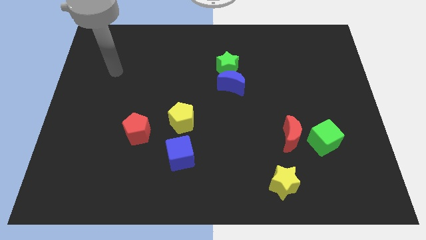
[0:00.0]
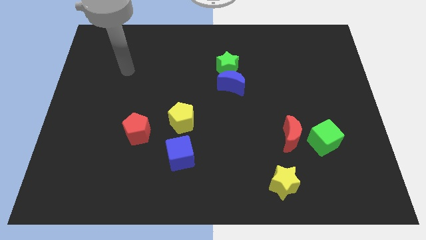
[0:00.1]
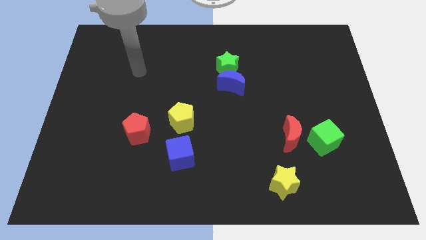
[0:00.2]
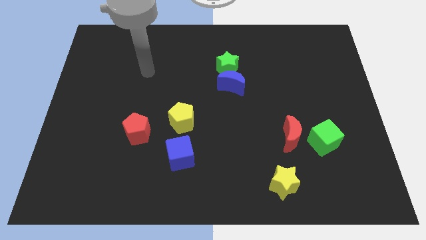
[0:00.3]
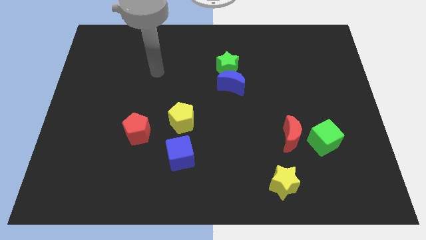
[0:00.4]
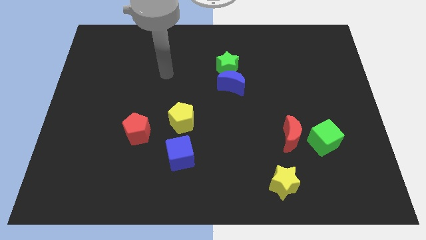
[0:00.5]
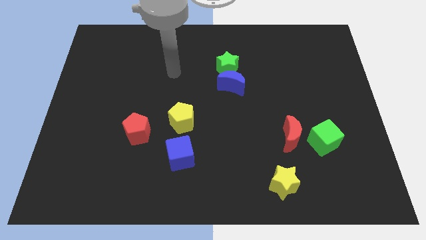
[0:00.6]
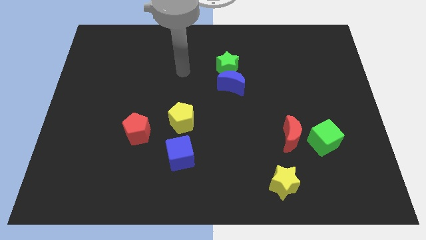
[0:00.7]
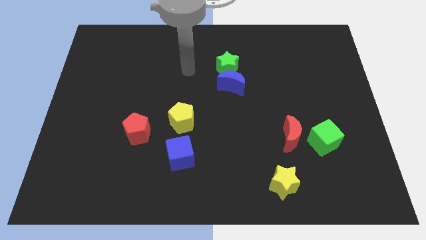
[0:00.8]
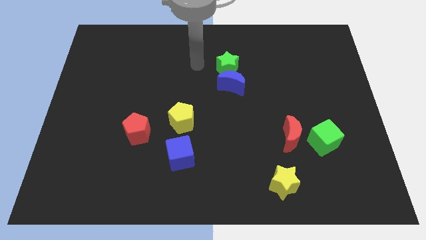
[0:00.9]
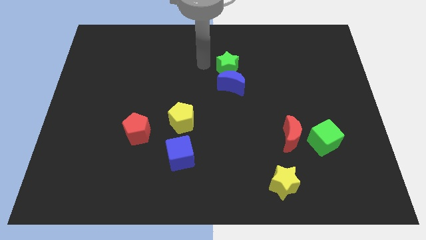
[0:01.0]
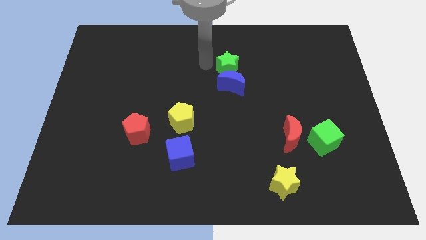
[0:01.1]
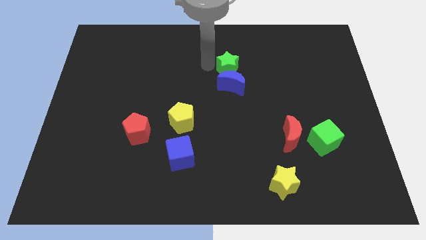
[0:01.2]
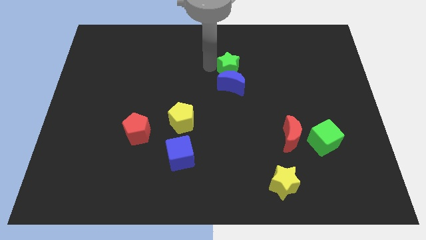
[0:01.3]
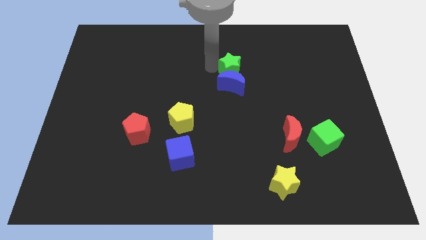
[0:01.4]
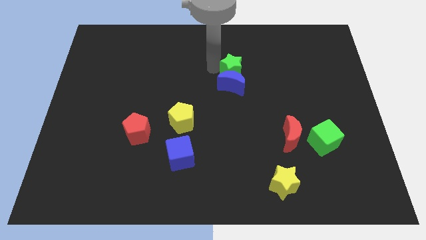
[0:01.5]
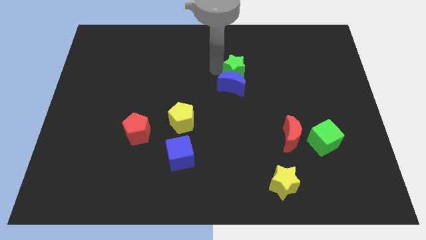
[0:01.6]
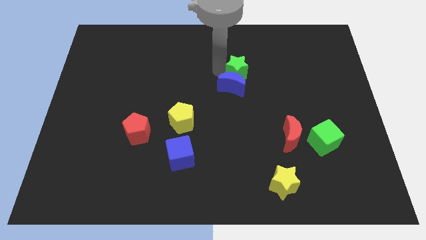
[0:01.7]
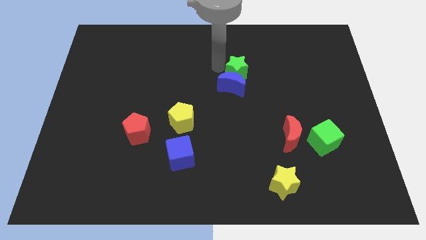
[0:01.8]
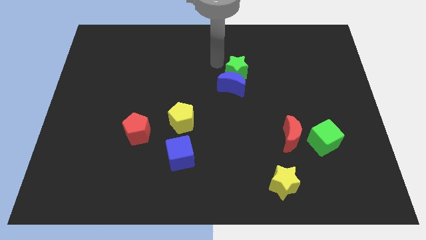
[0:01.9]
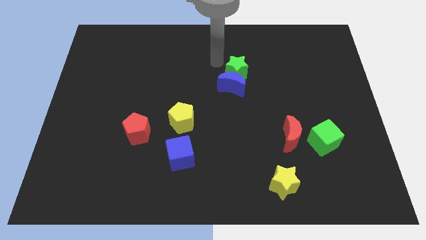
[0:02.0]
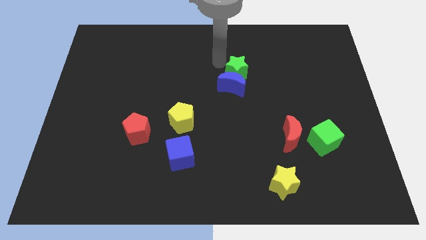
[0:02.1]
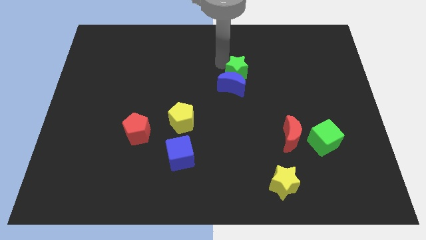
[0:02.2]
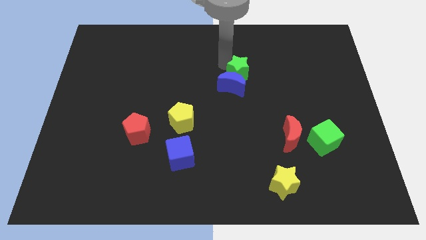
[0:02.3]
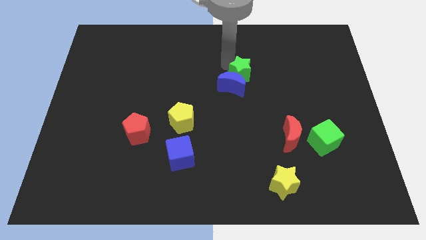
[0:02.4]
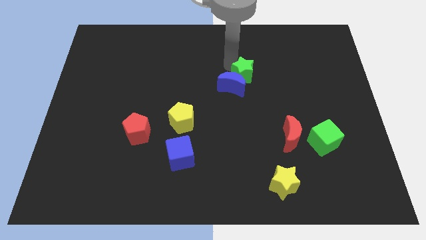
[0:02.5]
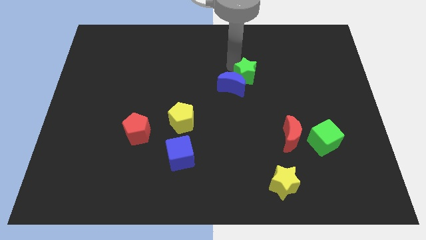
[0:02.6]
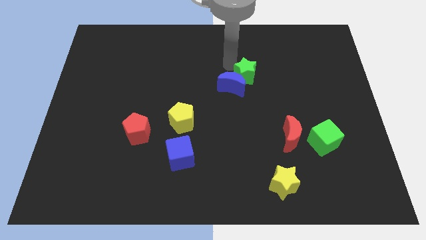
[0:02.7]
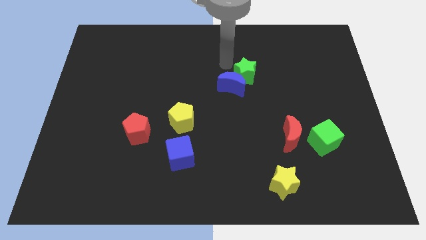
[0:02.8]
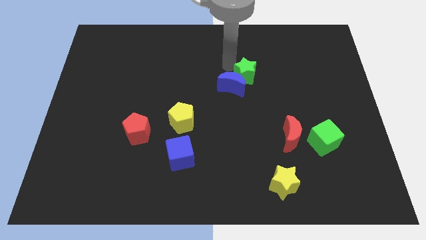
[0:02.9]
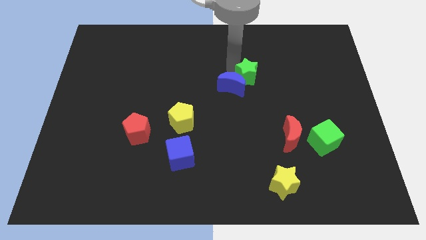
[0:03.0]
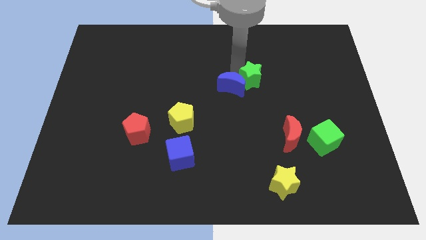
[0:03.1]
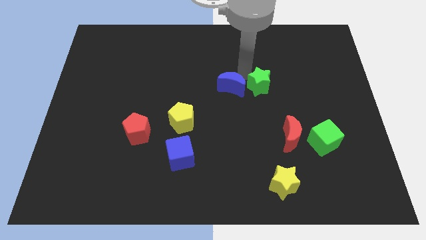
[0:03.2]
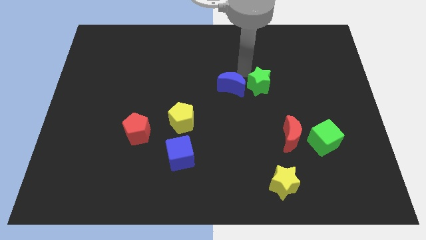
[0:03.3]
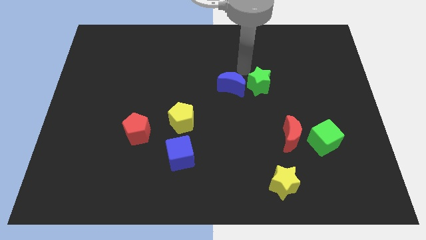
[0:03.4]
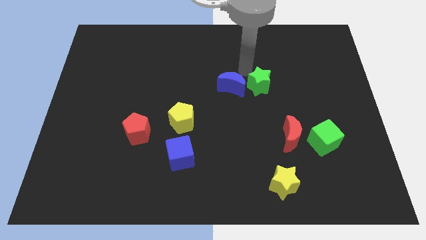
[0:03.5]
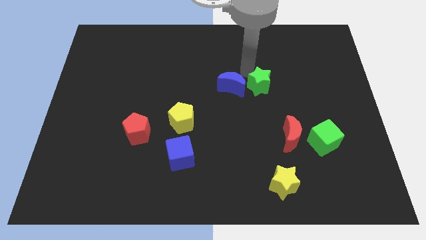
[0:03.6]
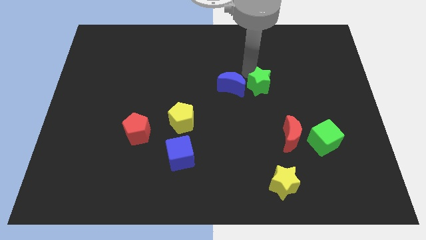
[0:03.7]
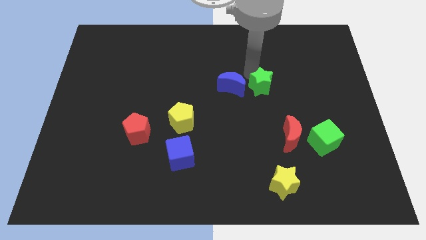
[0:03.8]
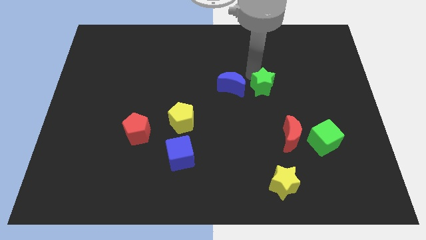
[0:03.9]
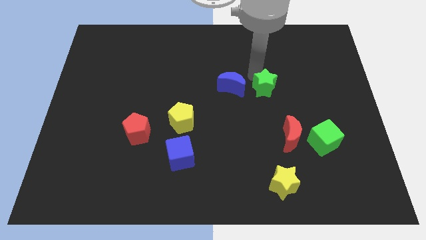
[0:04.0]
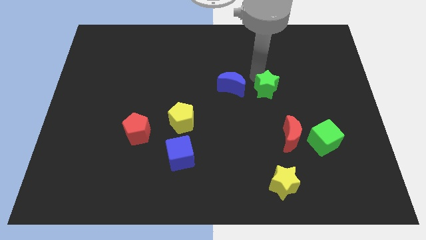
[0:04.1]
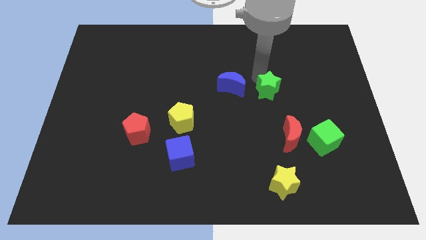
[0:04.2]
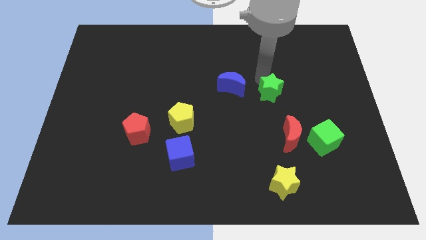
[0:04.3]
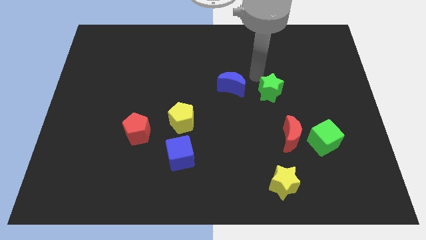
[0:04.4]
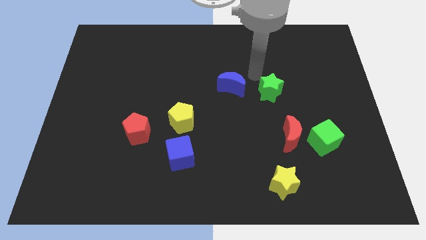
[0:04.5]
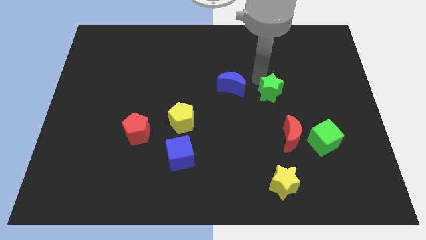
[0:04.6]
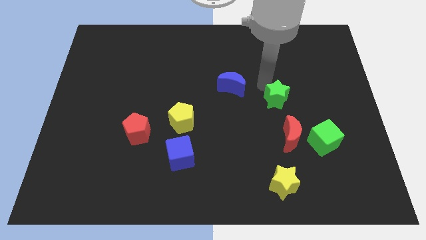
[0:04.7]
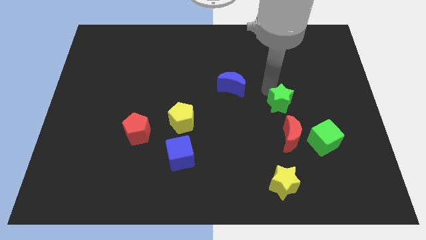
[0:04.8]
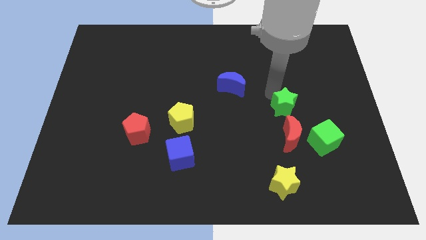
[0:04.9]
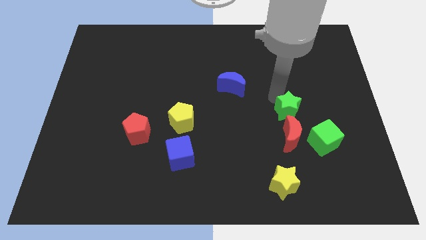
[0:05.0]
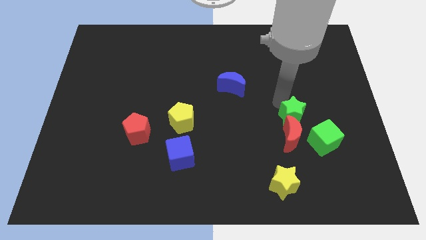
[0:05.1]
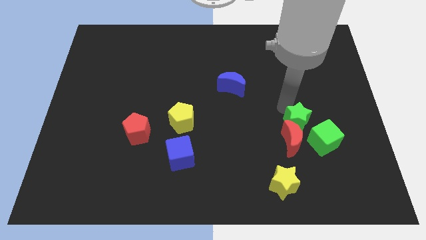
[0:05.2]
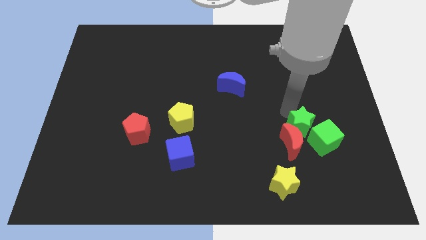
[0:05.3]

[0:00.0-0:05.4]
move the green star towards the green cube

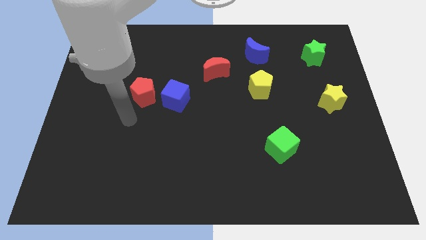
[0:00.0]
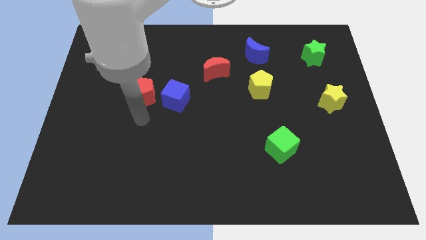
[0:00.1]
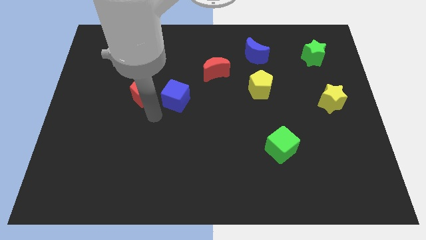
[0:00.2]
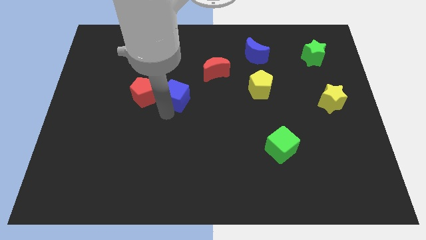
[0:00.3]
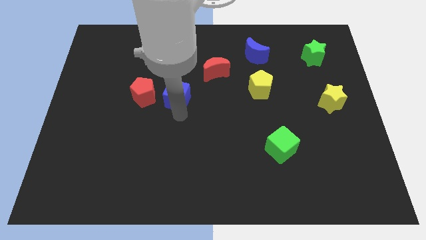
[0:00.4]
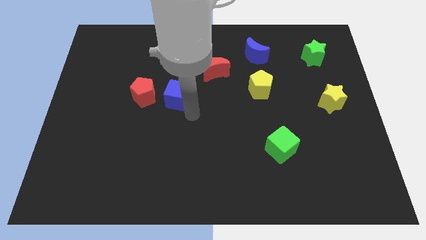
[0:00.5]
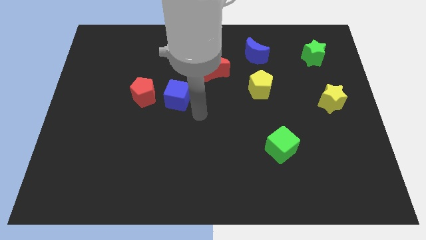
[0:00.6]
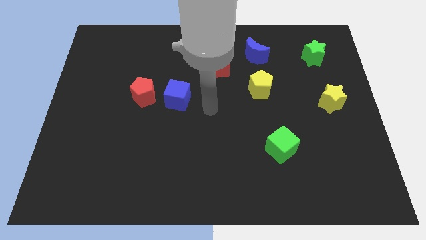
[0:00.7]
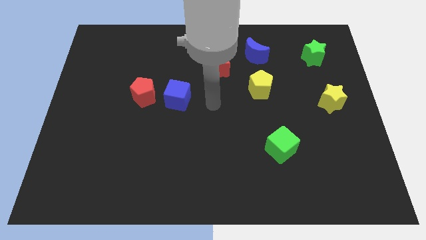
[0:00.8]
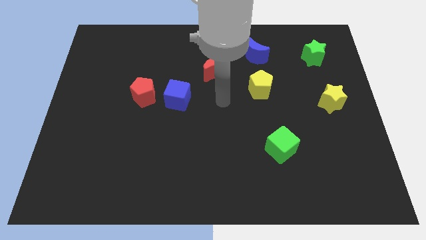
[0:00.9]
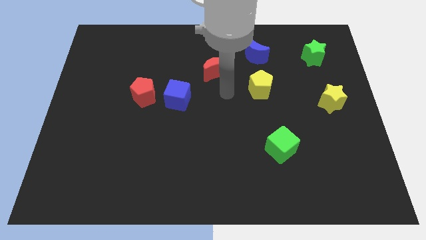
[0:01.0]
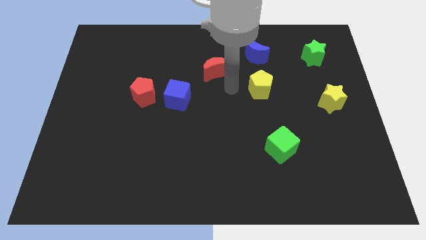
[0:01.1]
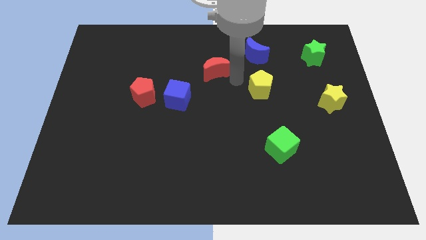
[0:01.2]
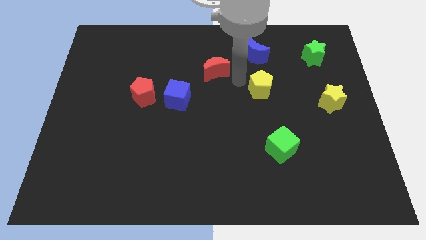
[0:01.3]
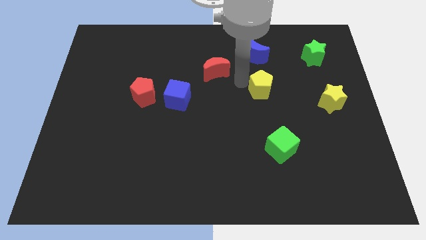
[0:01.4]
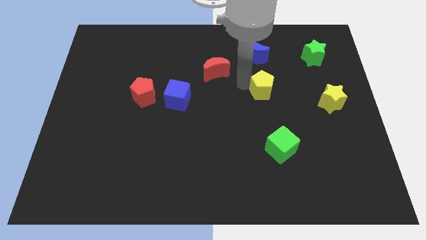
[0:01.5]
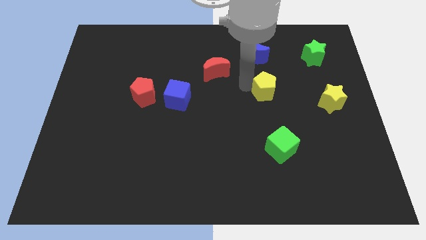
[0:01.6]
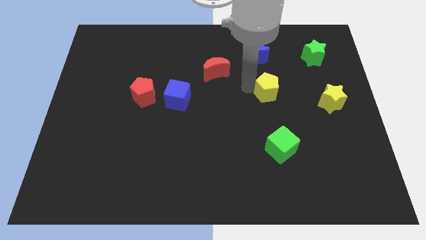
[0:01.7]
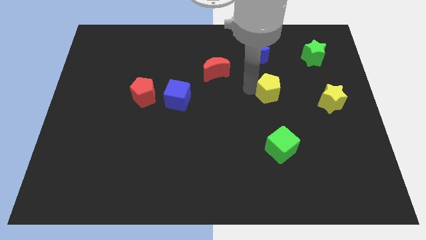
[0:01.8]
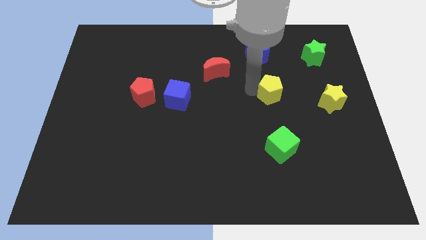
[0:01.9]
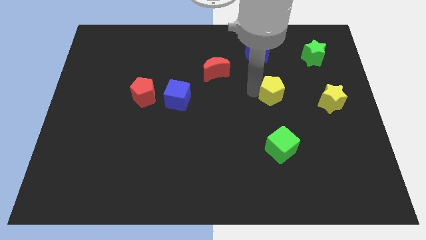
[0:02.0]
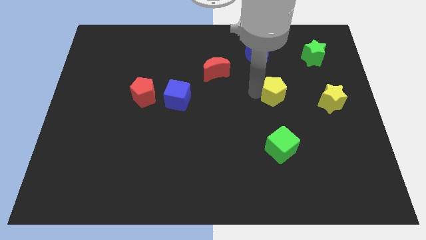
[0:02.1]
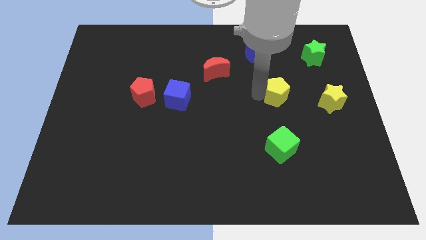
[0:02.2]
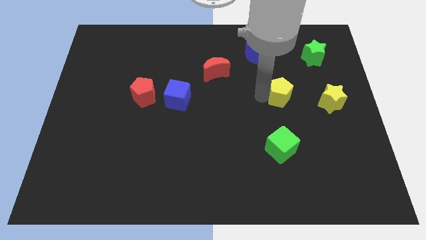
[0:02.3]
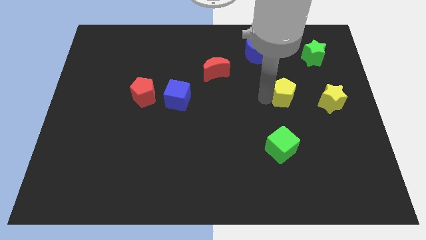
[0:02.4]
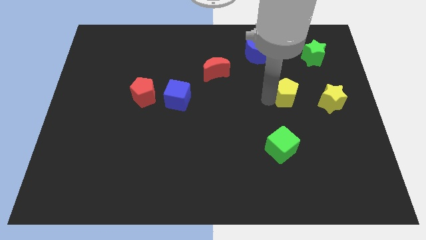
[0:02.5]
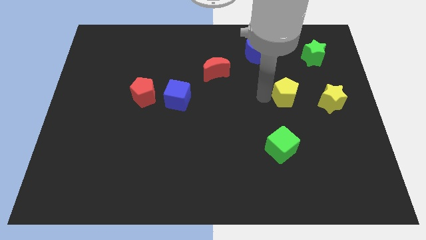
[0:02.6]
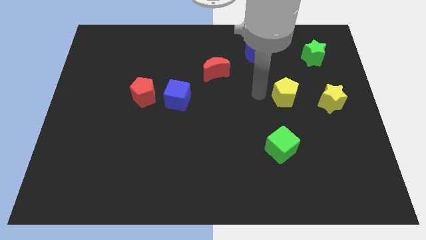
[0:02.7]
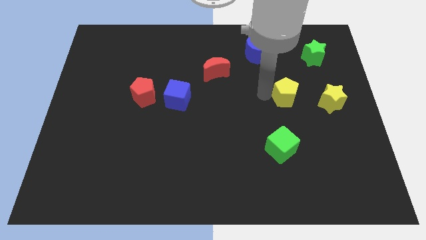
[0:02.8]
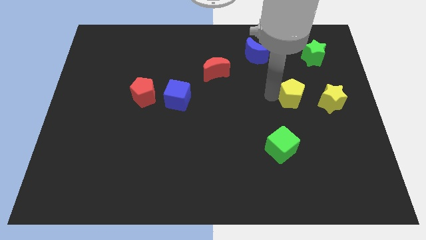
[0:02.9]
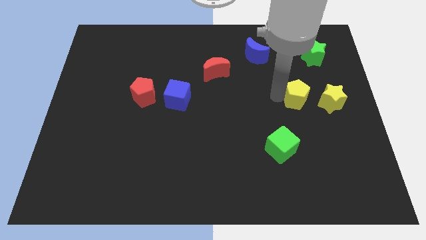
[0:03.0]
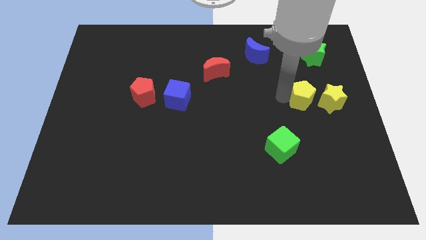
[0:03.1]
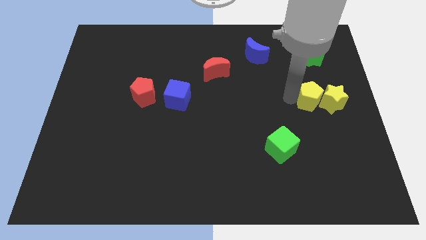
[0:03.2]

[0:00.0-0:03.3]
push the yellow pentagon close to the yellow star
